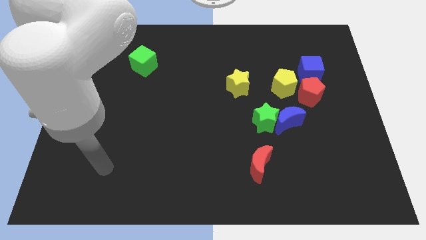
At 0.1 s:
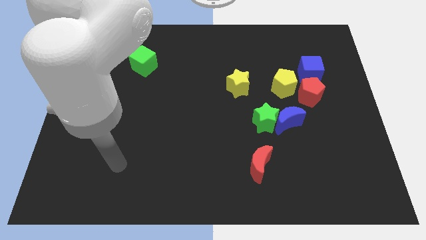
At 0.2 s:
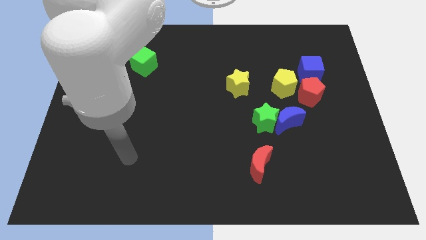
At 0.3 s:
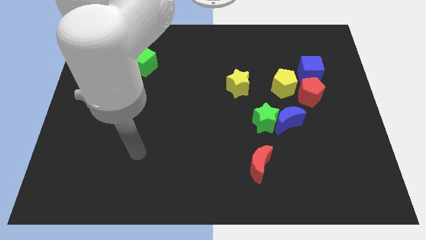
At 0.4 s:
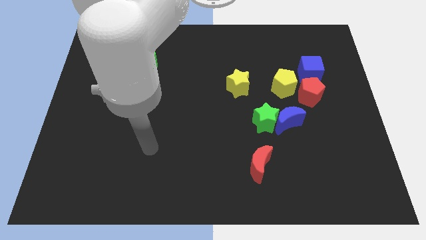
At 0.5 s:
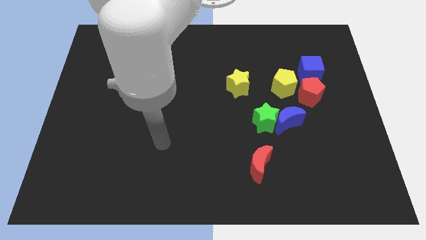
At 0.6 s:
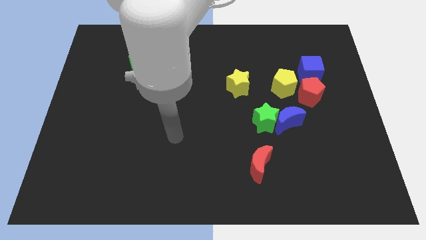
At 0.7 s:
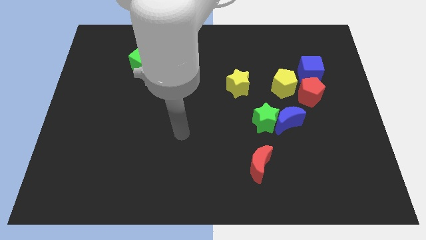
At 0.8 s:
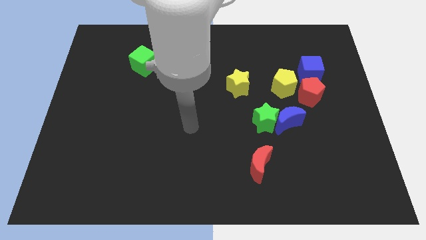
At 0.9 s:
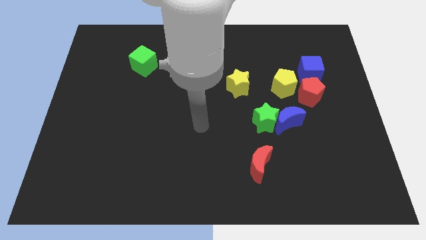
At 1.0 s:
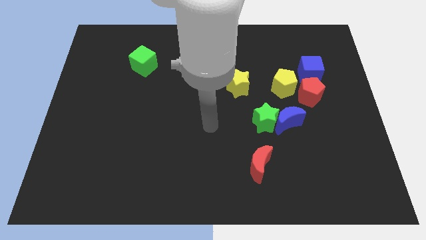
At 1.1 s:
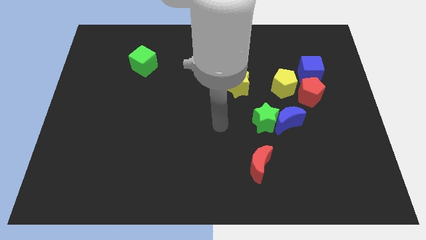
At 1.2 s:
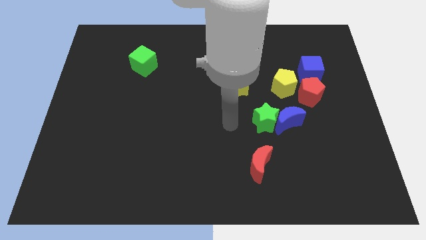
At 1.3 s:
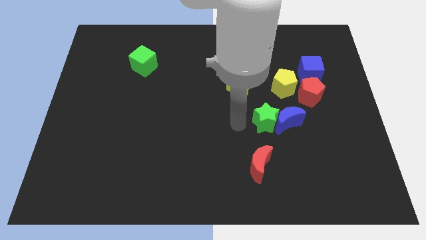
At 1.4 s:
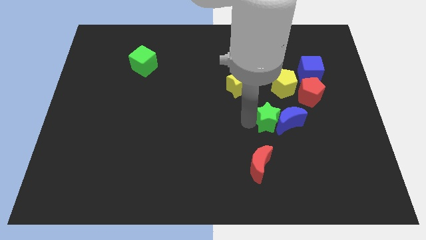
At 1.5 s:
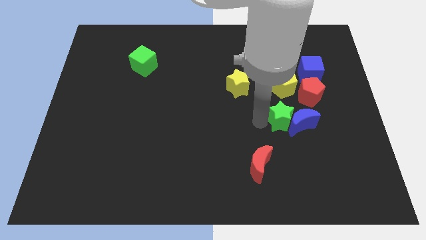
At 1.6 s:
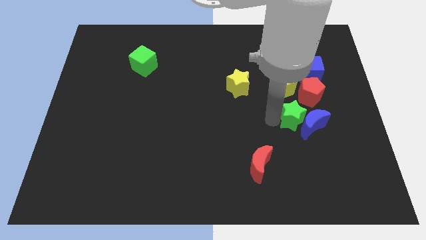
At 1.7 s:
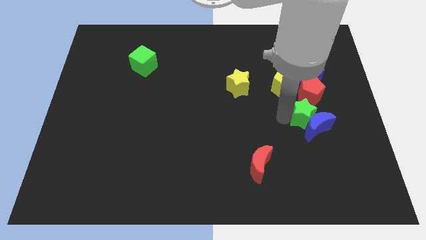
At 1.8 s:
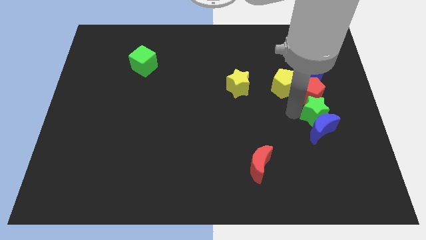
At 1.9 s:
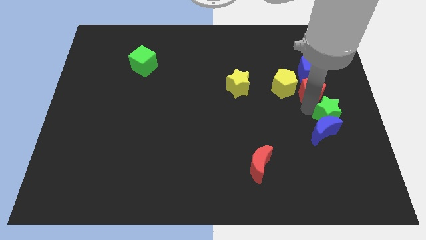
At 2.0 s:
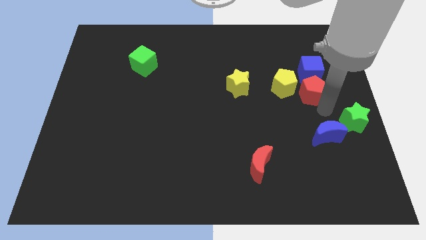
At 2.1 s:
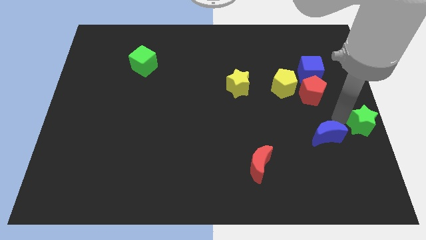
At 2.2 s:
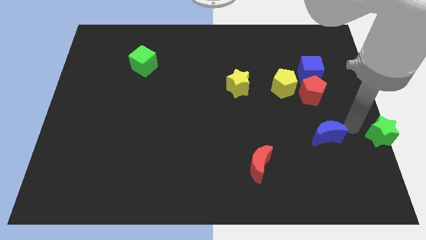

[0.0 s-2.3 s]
move the blue moon away from the green star

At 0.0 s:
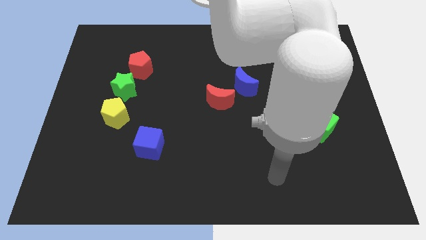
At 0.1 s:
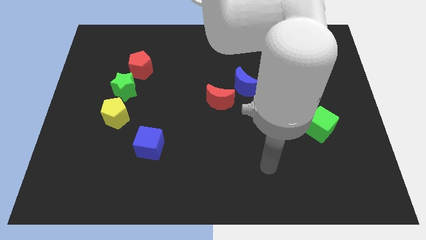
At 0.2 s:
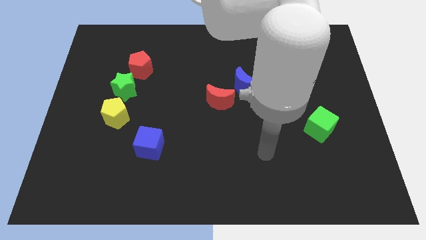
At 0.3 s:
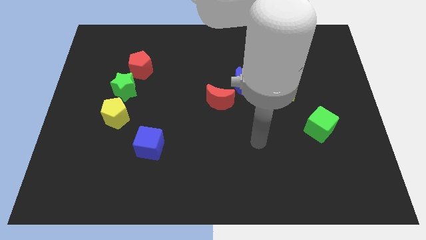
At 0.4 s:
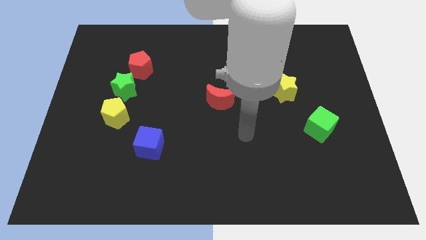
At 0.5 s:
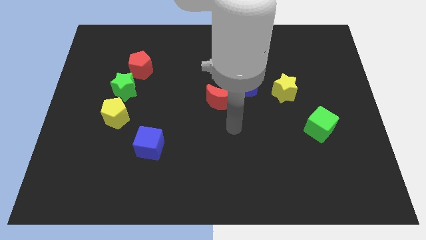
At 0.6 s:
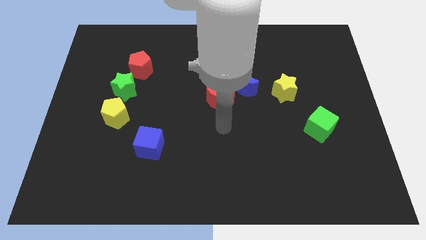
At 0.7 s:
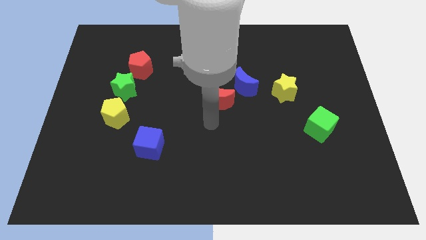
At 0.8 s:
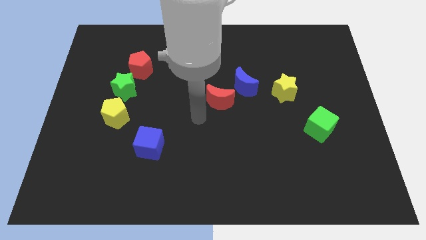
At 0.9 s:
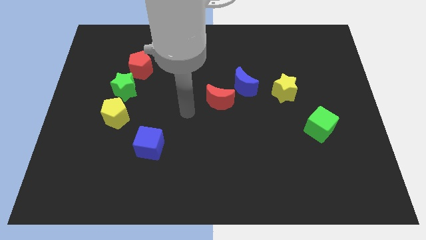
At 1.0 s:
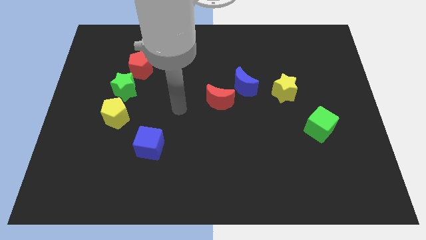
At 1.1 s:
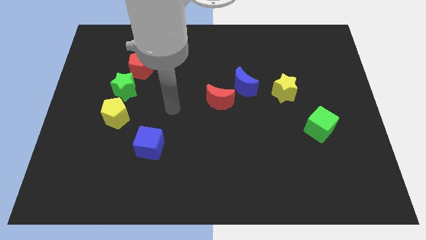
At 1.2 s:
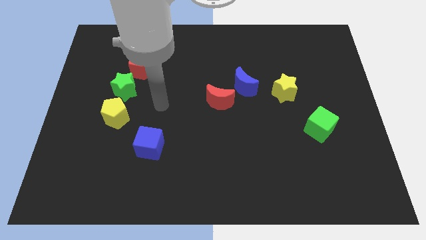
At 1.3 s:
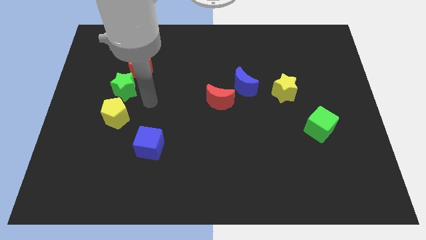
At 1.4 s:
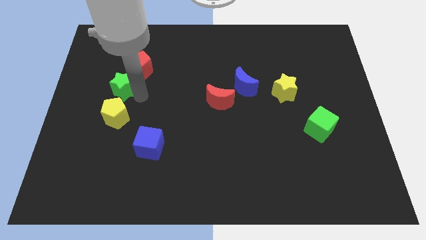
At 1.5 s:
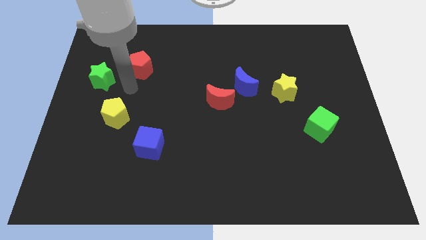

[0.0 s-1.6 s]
separate the red pentagon from the green star

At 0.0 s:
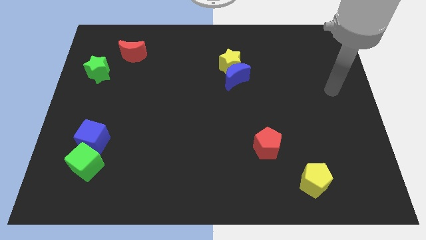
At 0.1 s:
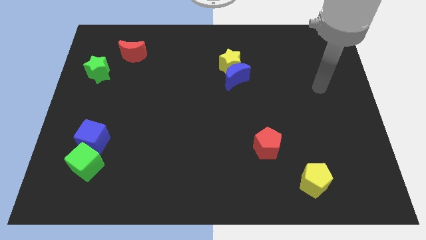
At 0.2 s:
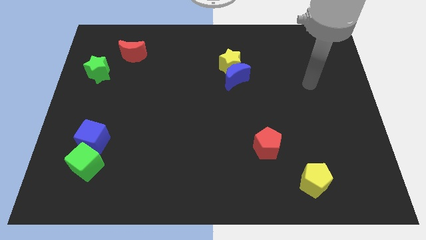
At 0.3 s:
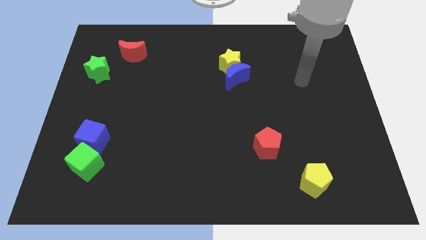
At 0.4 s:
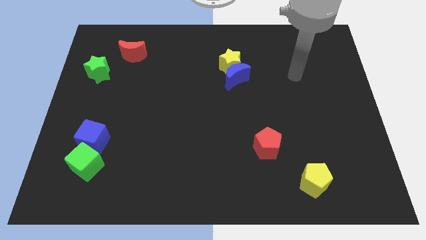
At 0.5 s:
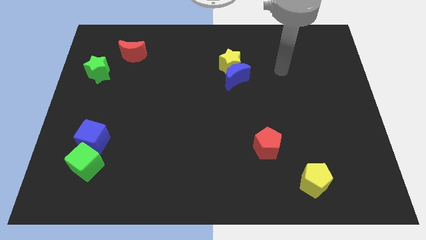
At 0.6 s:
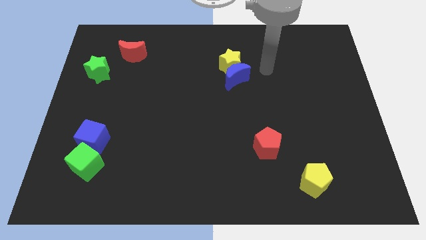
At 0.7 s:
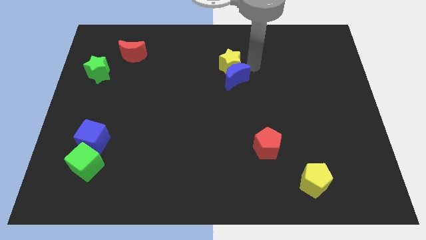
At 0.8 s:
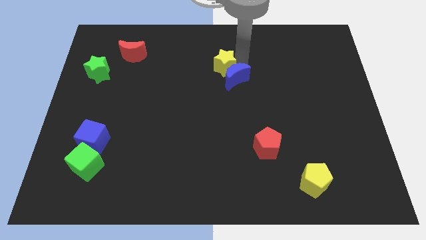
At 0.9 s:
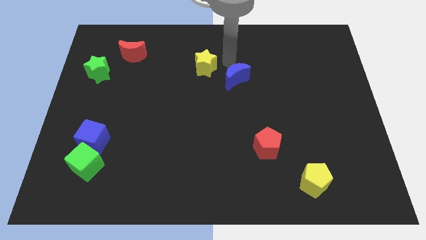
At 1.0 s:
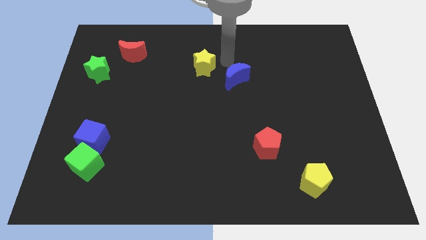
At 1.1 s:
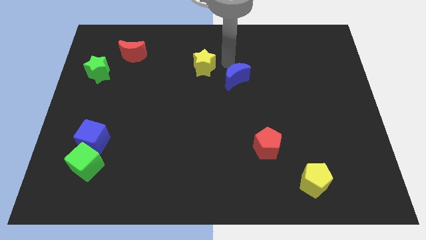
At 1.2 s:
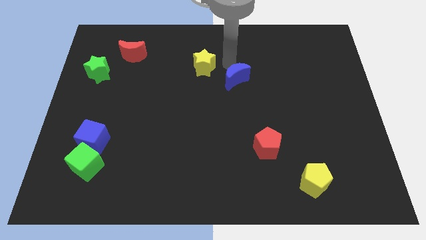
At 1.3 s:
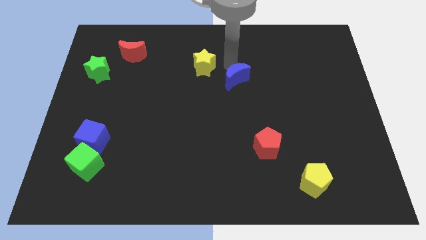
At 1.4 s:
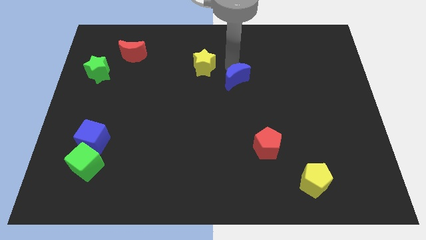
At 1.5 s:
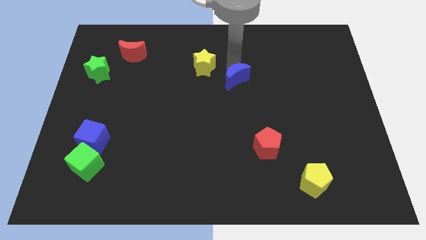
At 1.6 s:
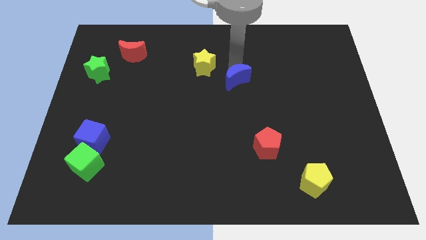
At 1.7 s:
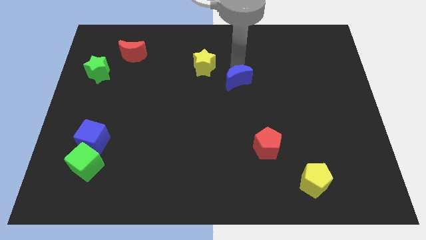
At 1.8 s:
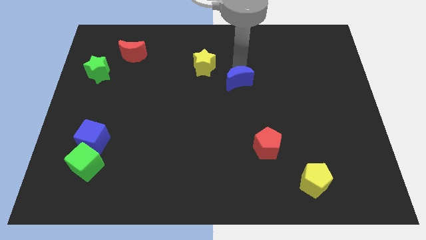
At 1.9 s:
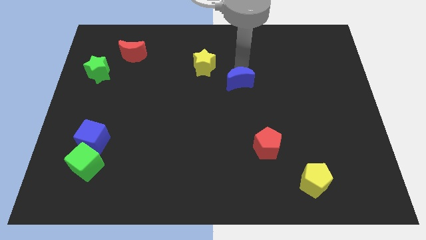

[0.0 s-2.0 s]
pull the blue moon apart from the yellow star

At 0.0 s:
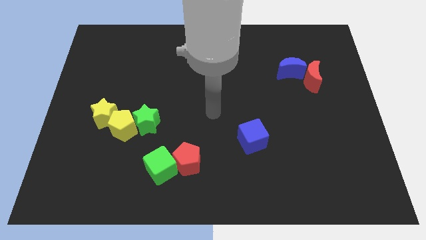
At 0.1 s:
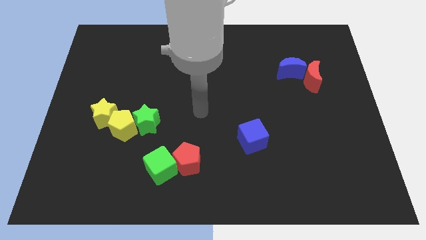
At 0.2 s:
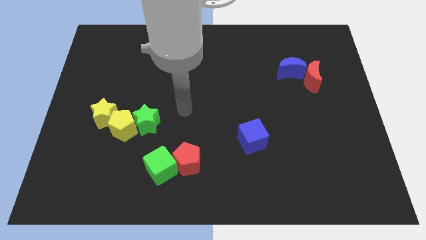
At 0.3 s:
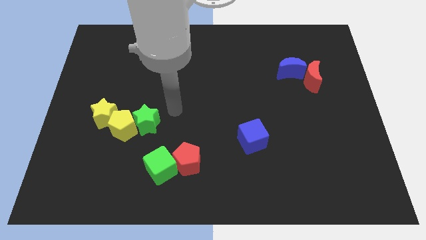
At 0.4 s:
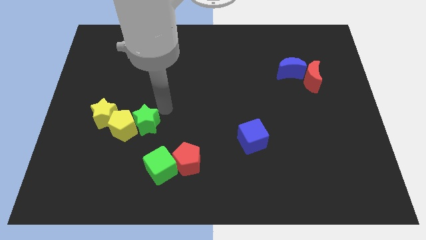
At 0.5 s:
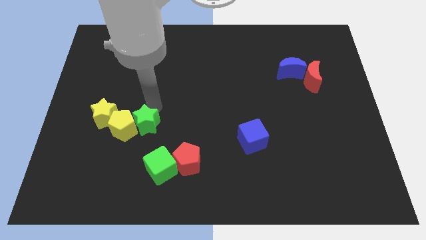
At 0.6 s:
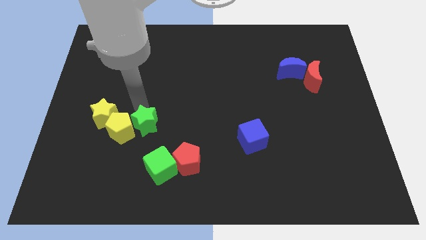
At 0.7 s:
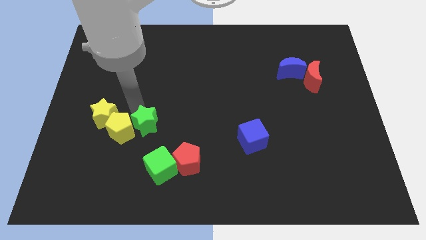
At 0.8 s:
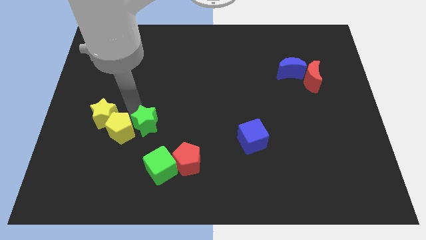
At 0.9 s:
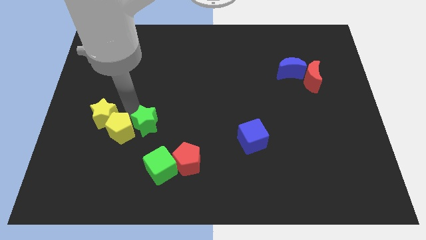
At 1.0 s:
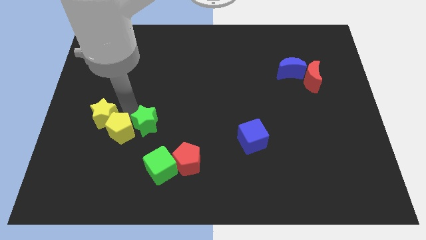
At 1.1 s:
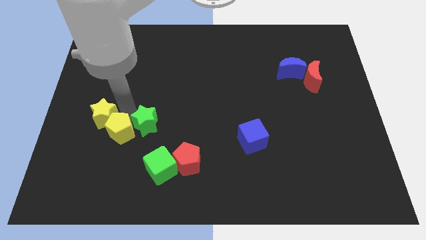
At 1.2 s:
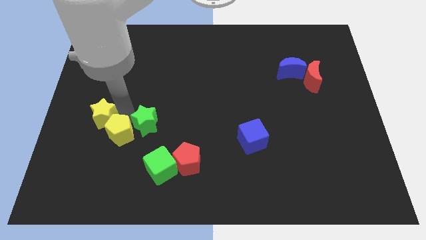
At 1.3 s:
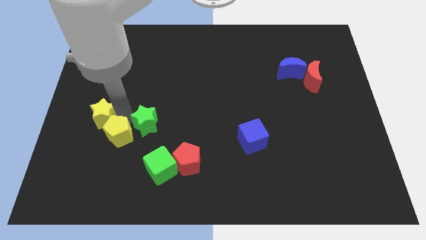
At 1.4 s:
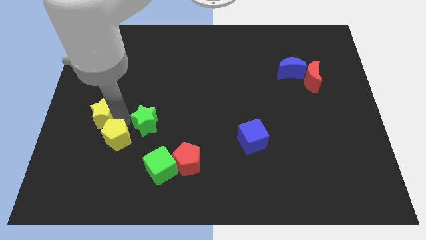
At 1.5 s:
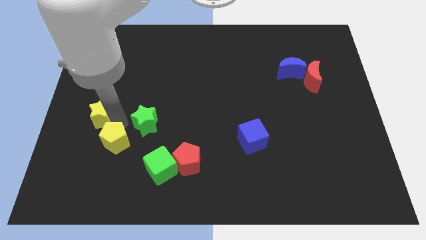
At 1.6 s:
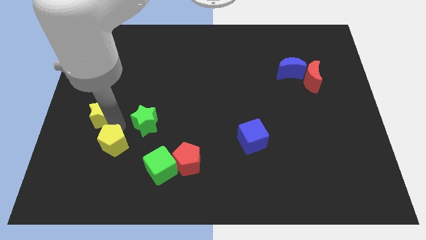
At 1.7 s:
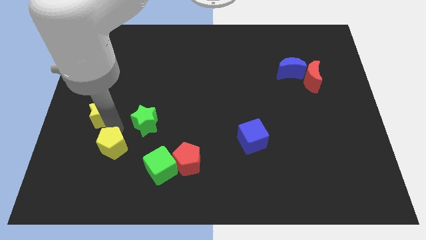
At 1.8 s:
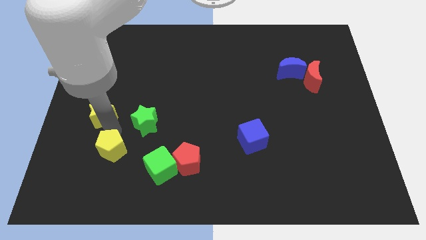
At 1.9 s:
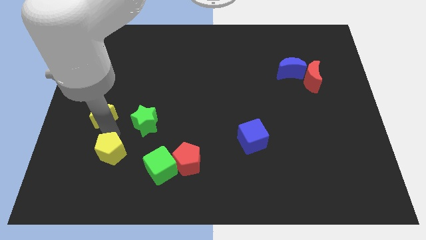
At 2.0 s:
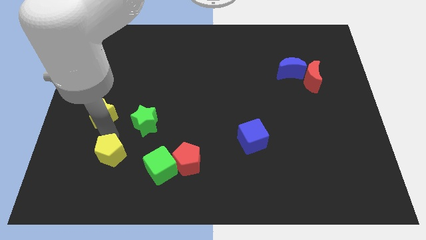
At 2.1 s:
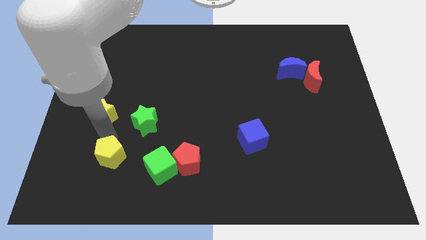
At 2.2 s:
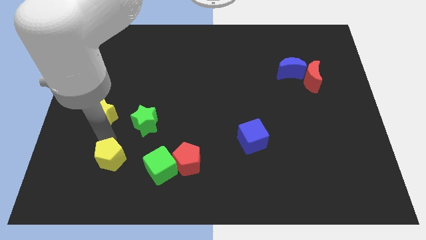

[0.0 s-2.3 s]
move the yellow pentagon away from the yellow star and green star

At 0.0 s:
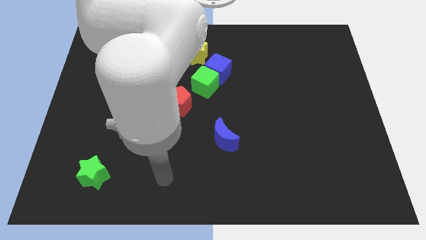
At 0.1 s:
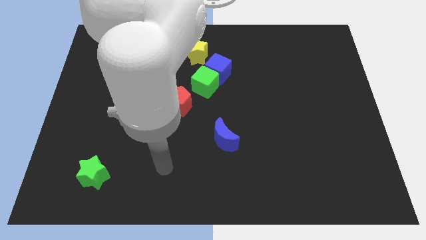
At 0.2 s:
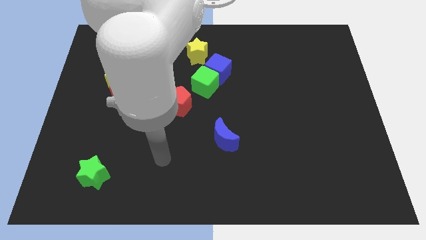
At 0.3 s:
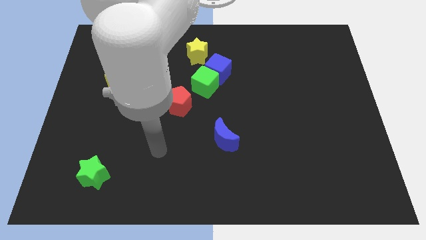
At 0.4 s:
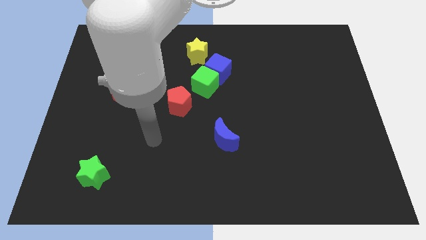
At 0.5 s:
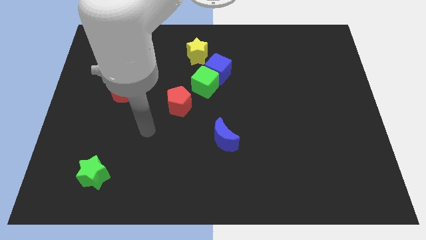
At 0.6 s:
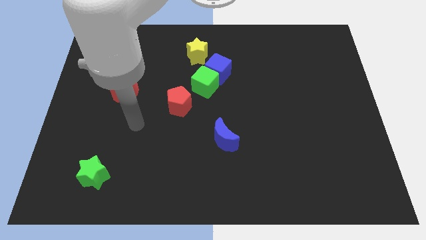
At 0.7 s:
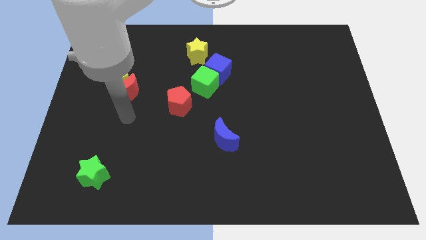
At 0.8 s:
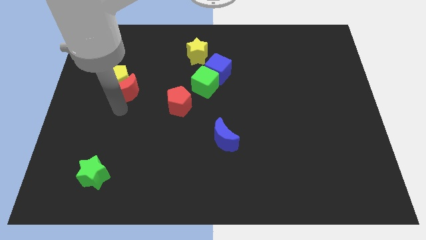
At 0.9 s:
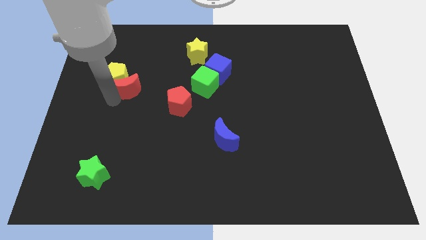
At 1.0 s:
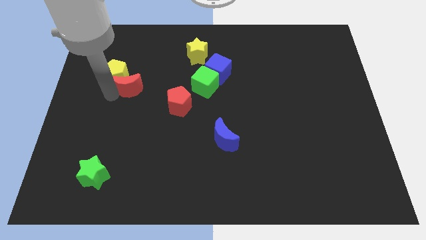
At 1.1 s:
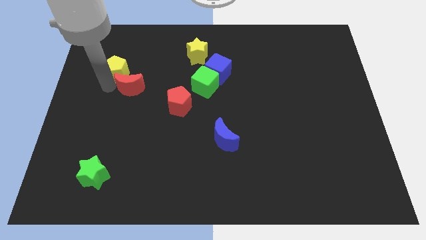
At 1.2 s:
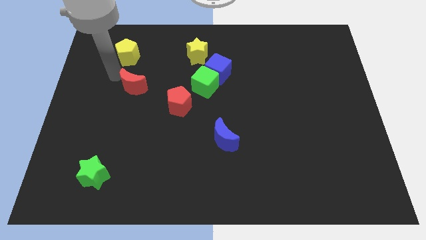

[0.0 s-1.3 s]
move the red moon away from the yellow pentagon

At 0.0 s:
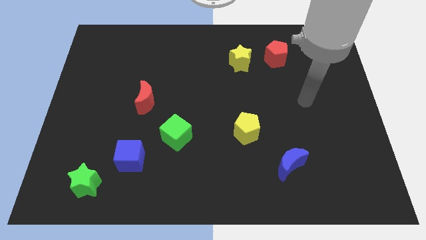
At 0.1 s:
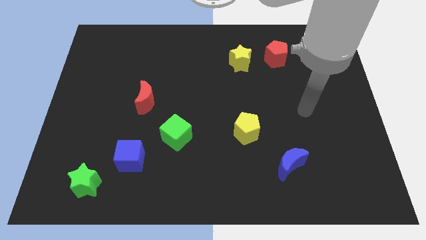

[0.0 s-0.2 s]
move the blue cube away from the green star
